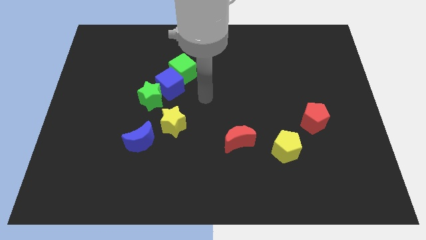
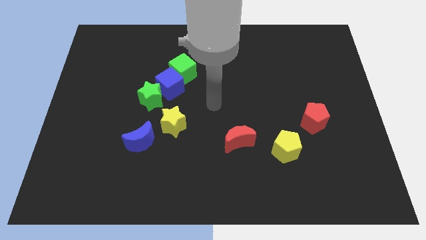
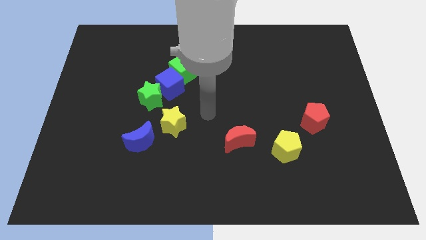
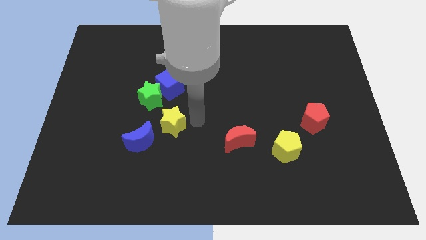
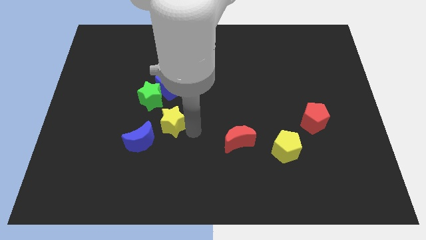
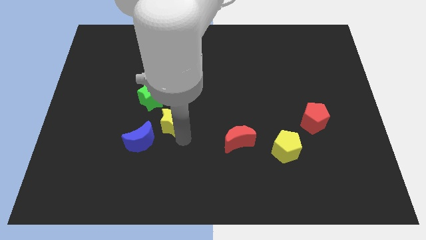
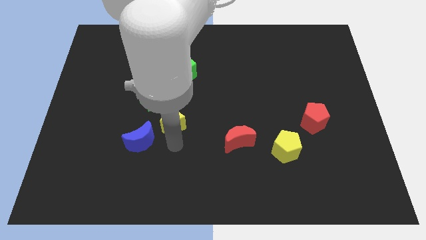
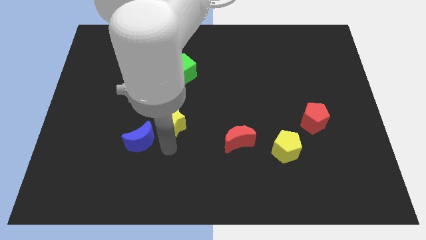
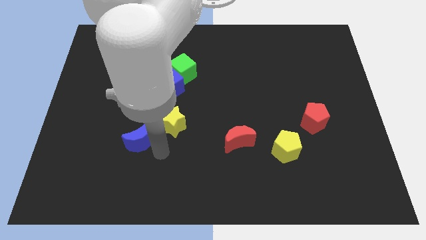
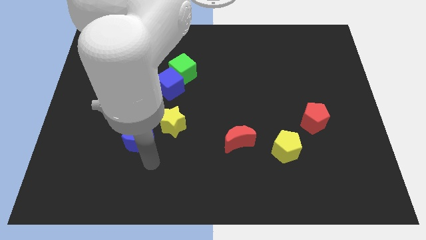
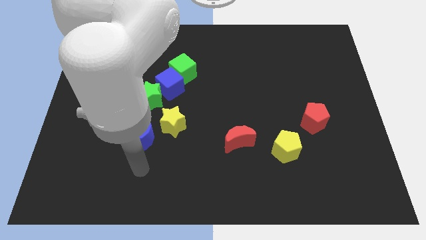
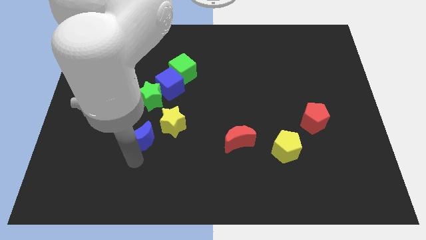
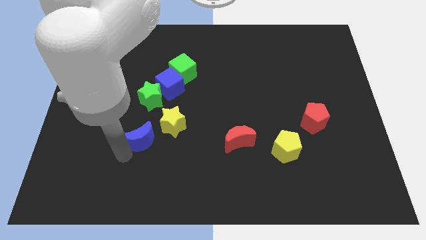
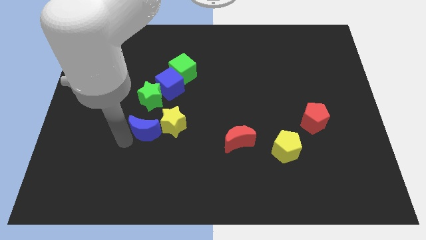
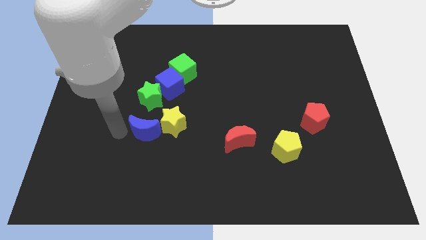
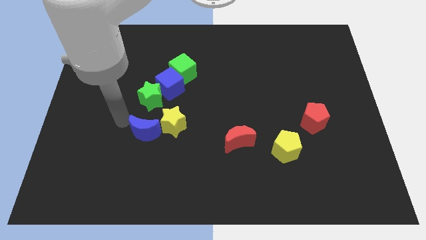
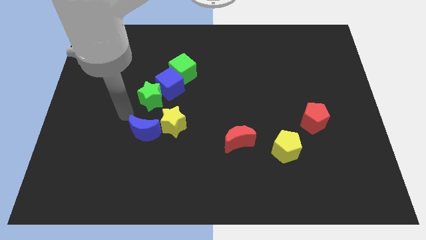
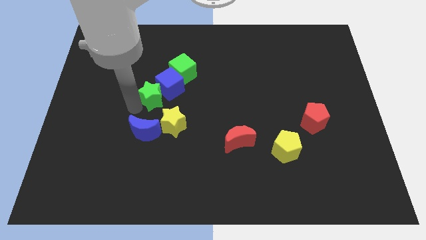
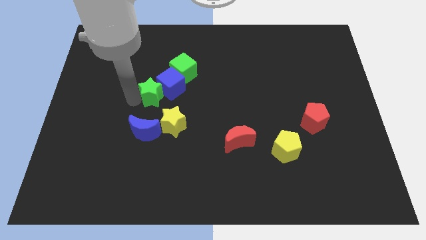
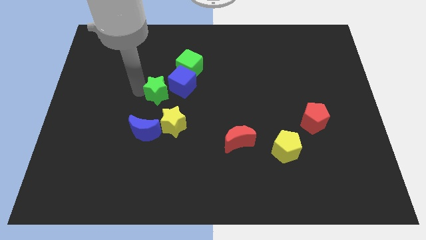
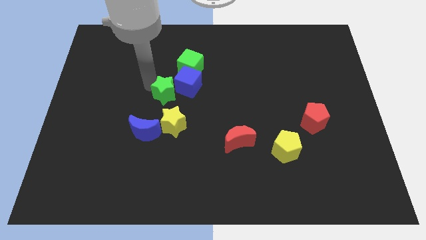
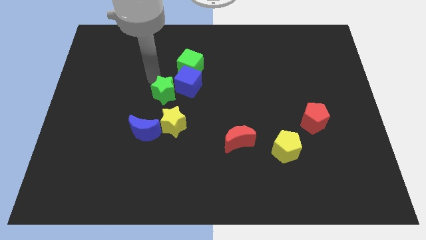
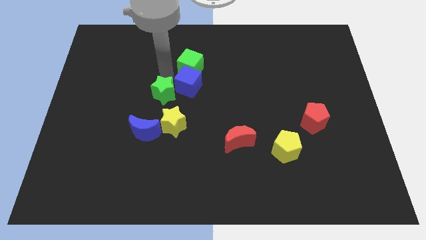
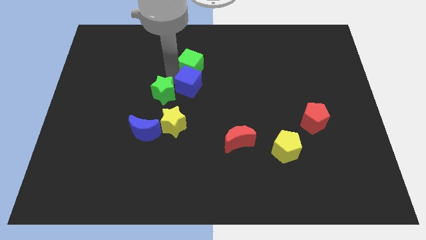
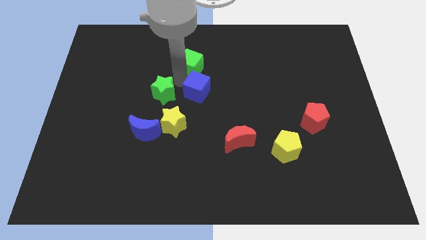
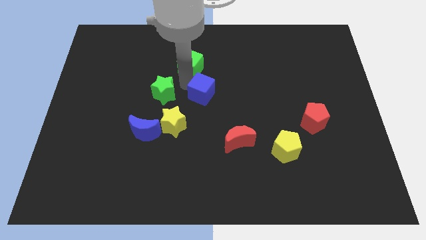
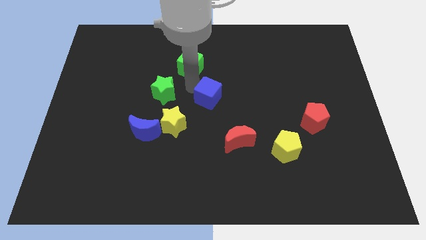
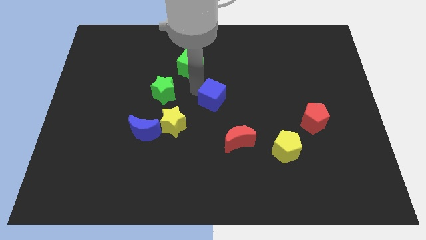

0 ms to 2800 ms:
pull the blue cube apart from the green star and green cube

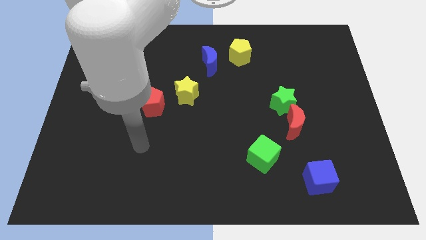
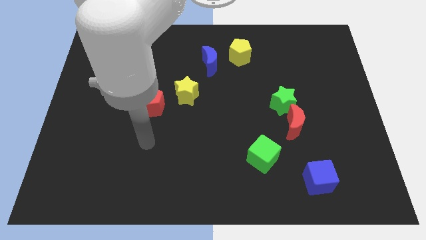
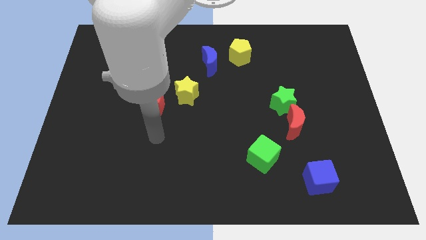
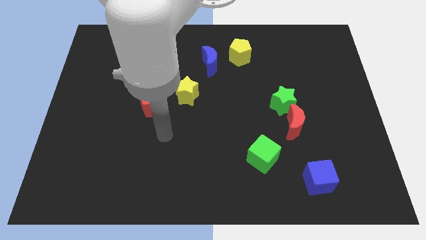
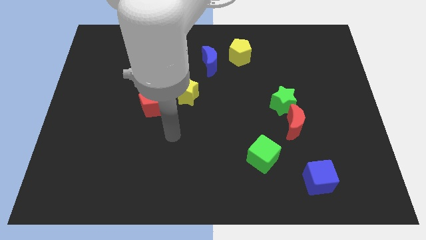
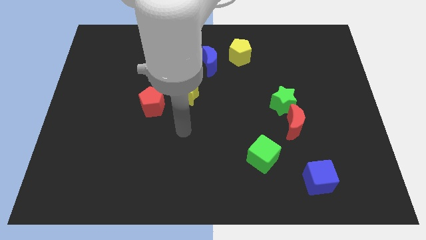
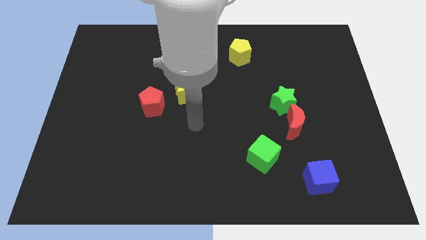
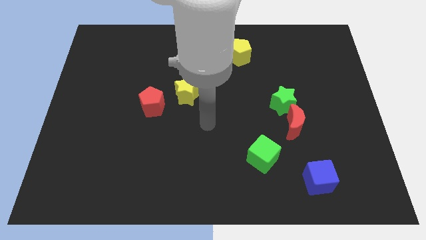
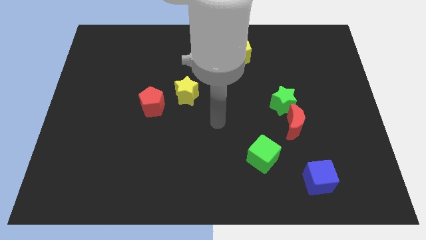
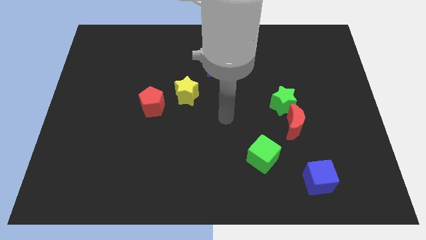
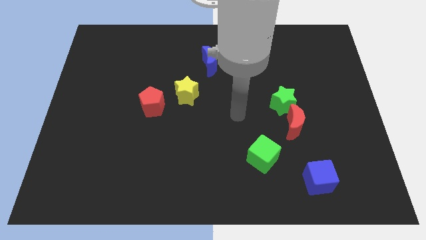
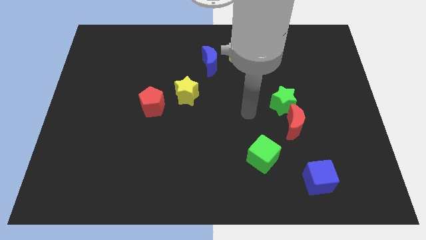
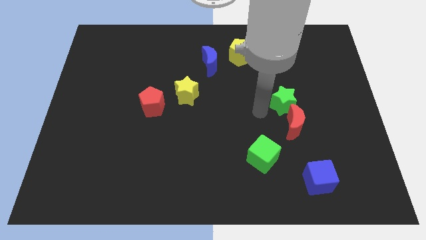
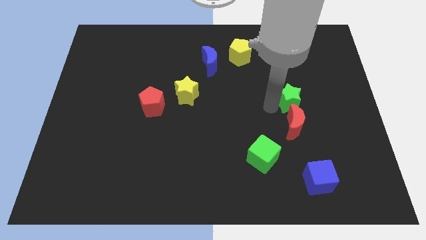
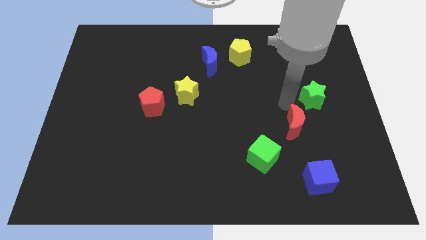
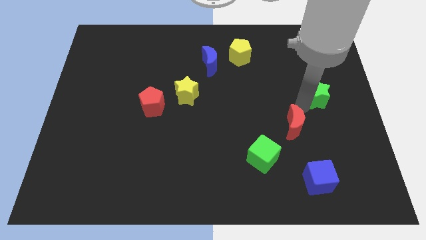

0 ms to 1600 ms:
pull the red moon apart from the green star

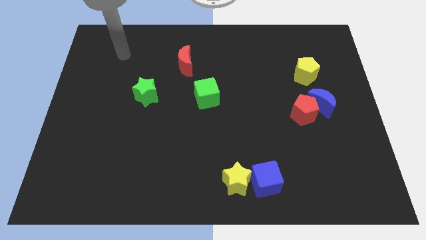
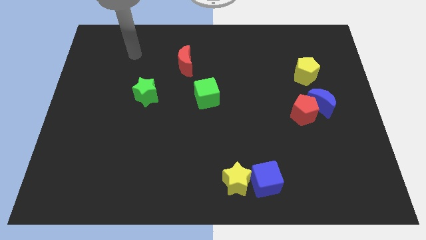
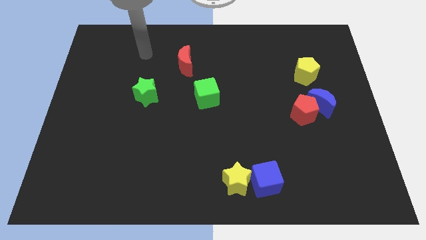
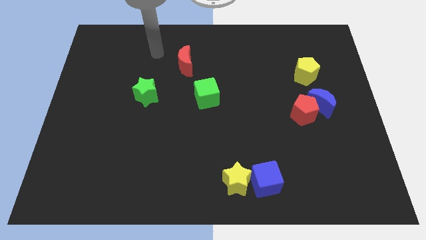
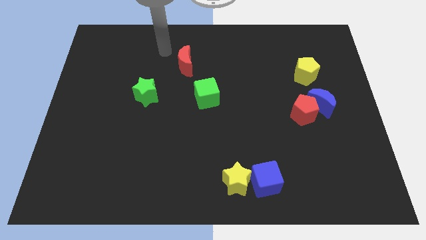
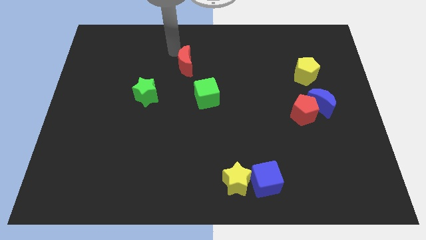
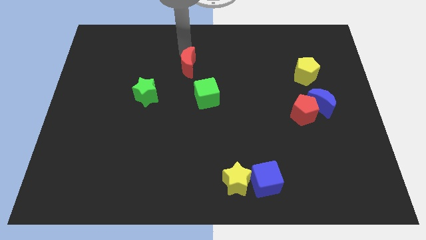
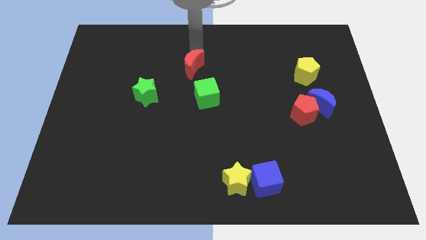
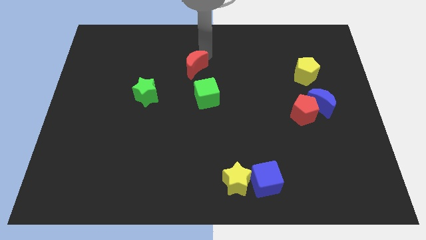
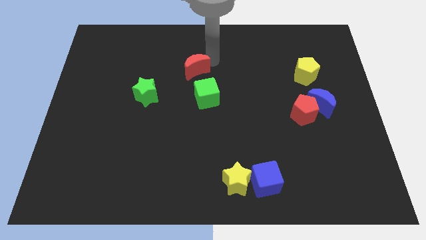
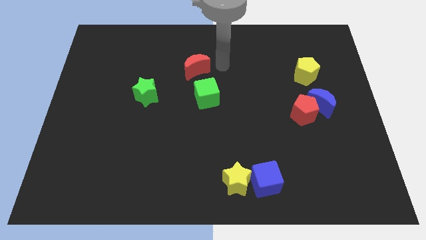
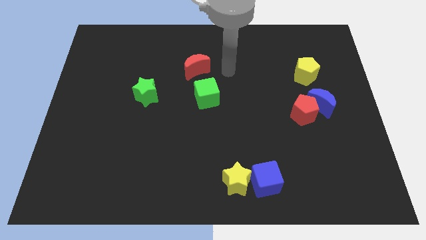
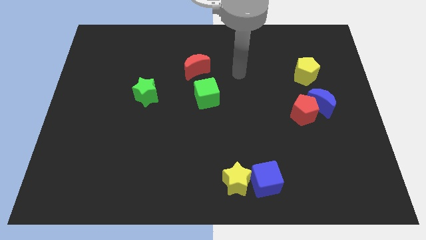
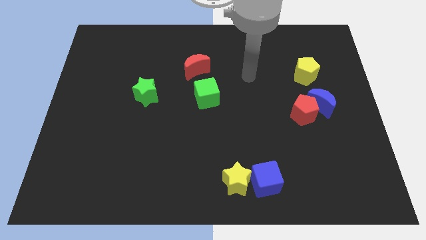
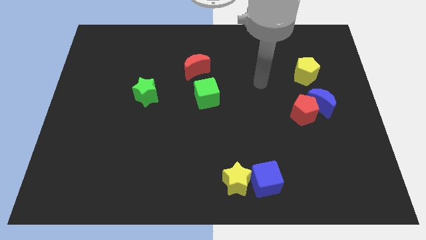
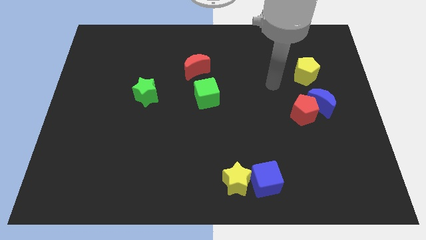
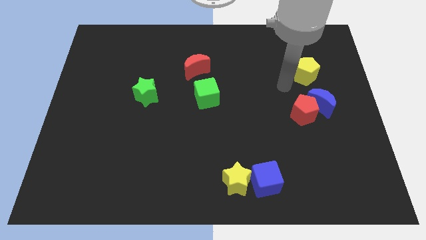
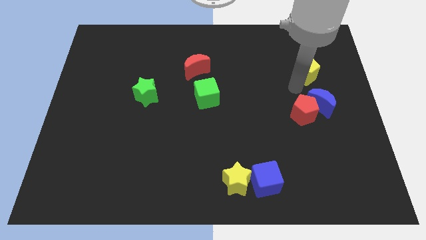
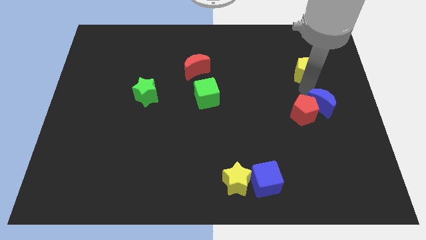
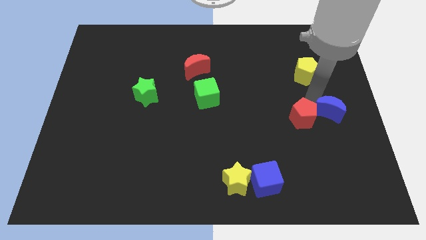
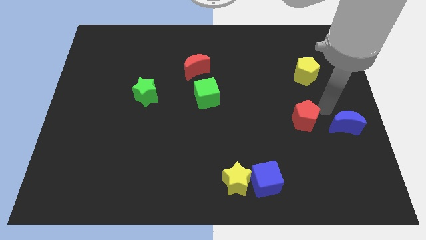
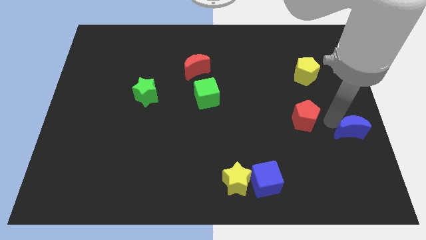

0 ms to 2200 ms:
separate the red pentagon from the blue moon

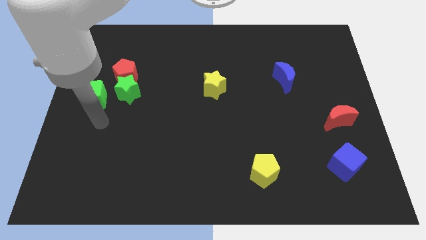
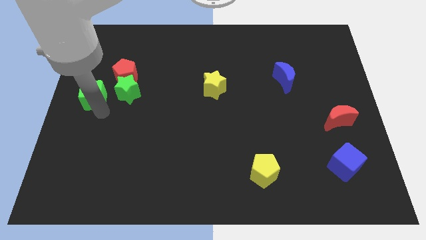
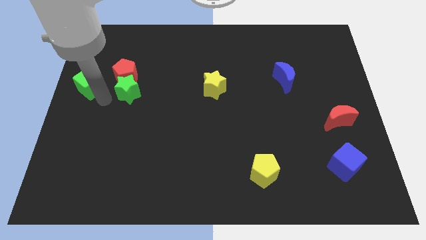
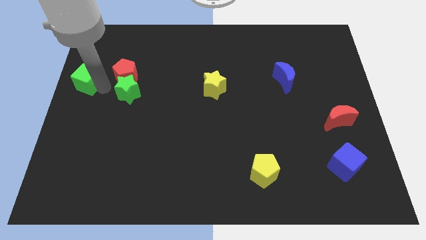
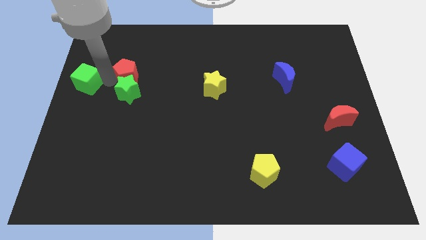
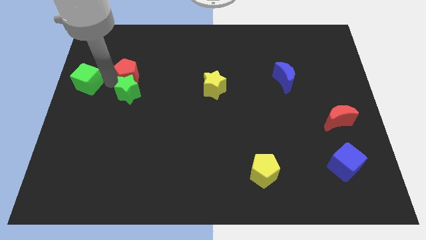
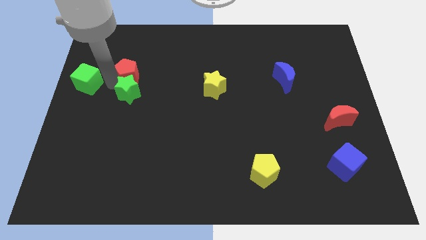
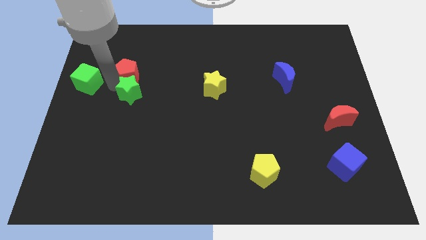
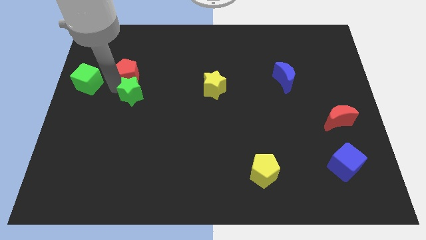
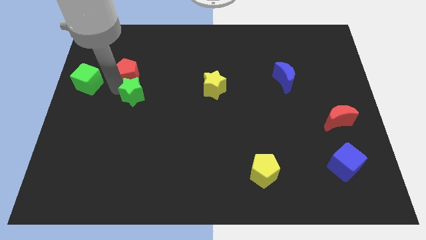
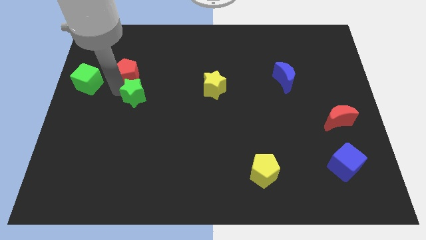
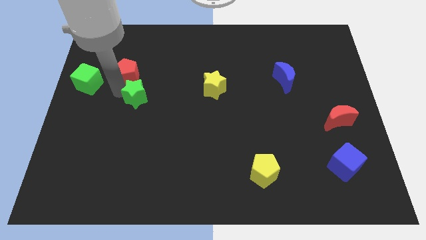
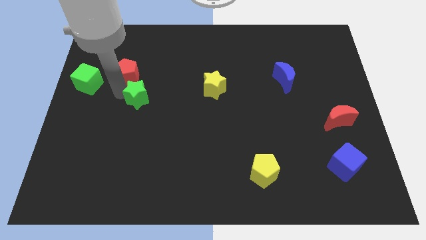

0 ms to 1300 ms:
pull the green star apart from the red pentagon and green cube

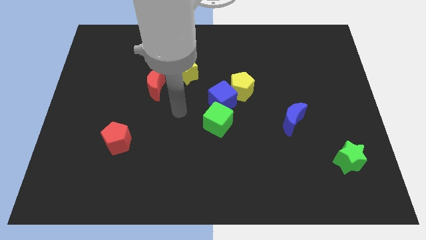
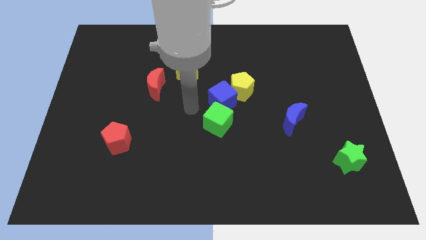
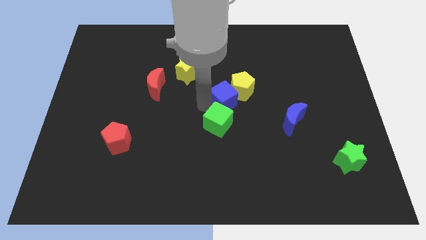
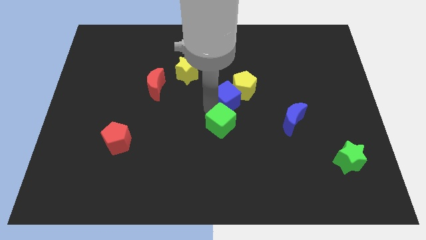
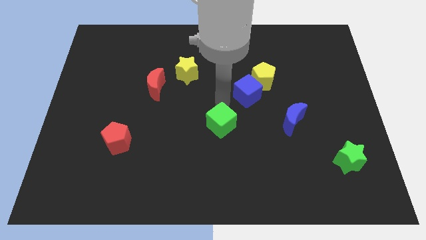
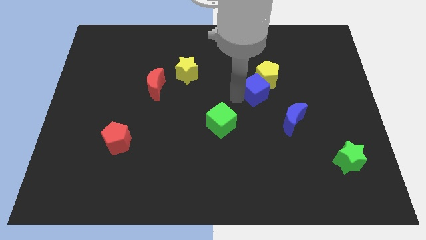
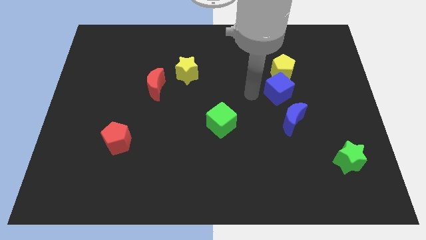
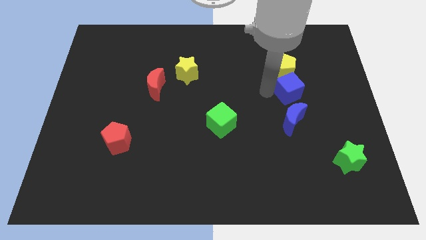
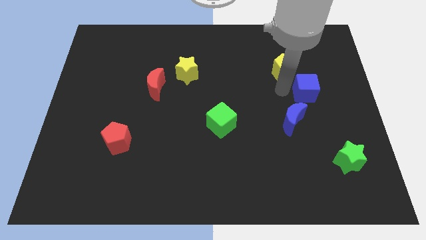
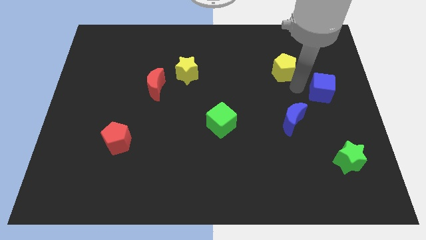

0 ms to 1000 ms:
pull the yellow pentagon apart from the blue cube

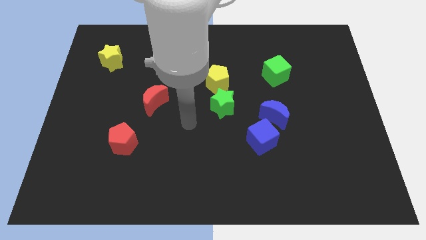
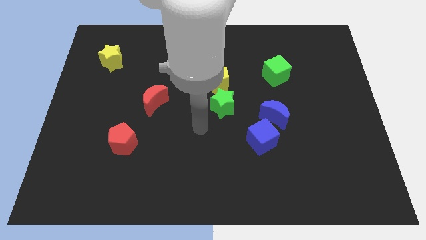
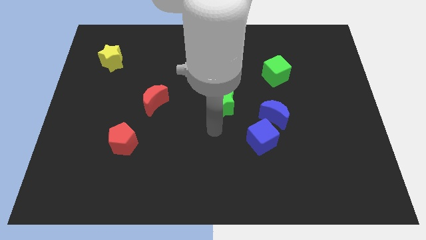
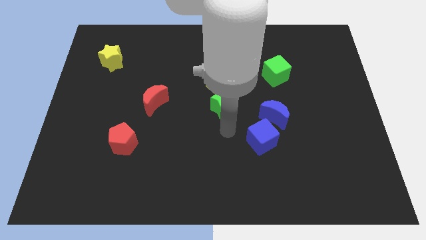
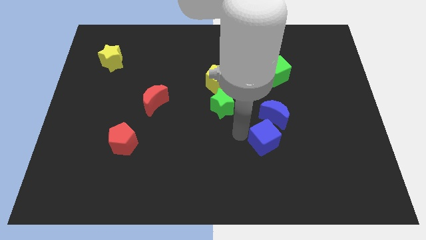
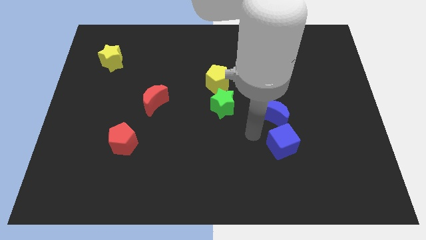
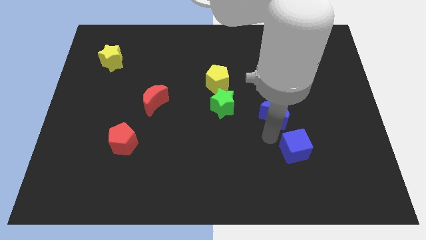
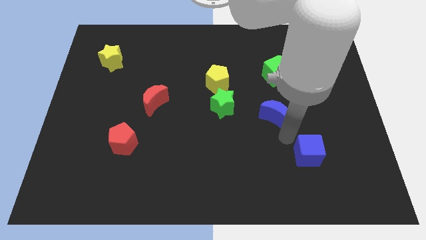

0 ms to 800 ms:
move the blue moon away from the blue cube
